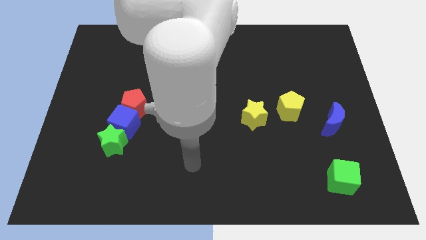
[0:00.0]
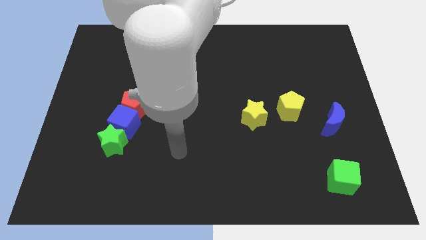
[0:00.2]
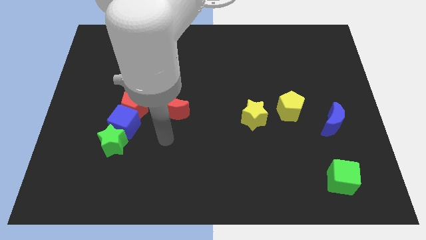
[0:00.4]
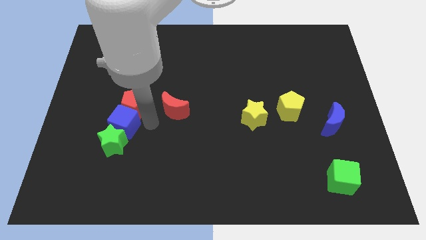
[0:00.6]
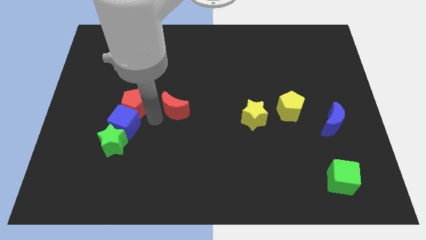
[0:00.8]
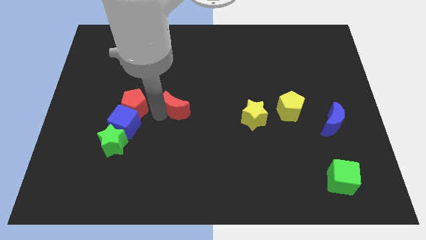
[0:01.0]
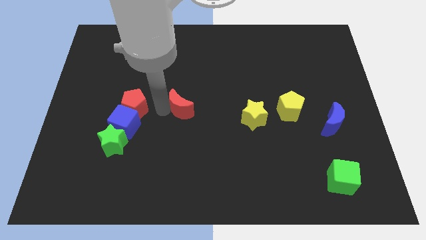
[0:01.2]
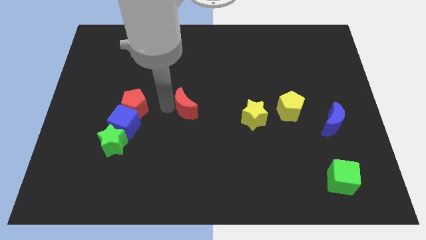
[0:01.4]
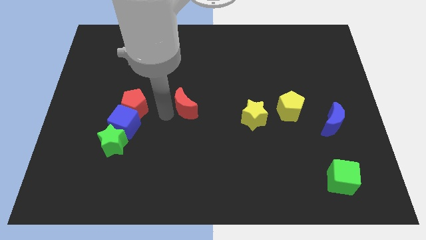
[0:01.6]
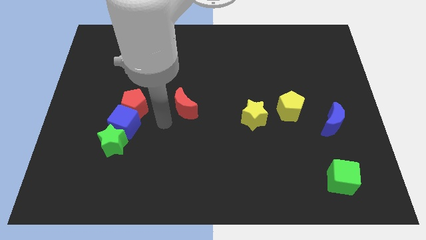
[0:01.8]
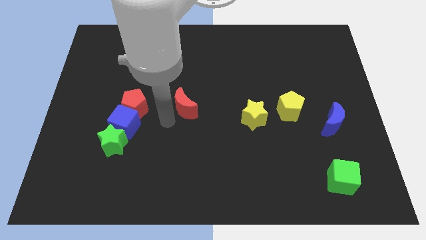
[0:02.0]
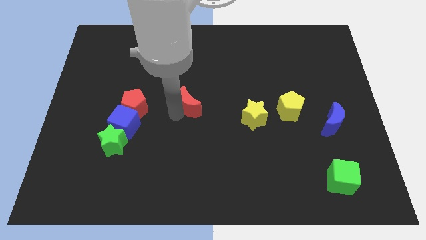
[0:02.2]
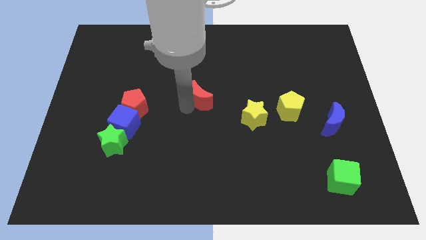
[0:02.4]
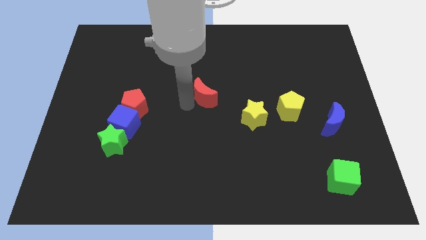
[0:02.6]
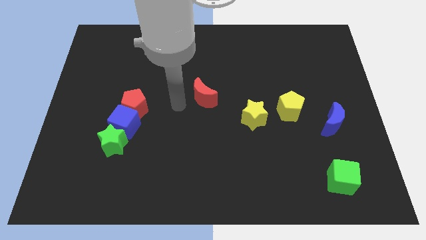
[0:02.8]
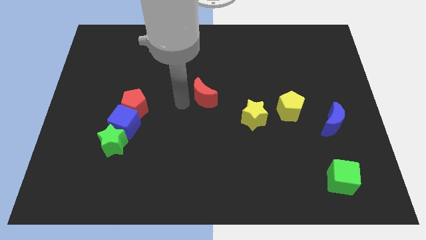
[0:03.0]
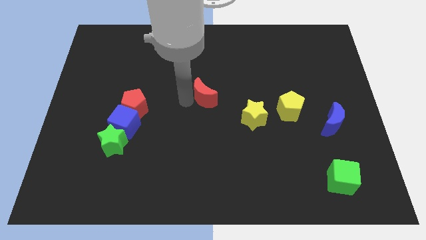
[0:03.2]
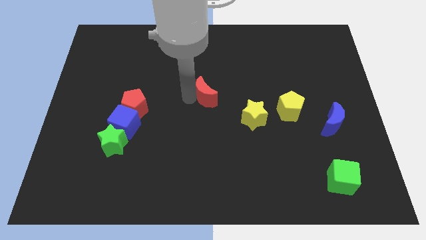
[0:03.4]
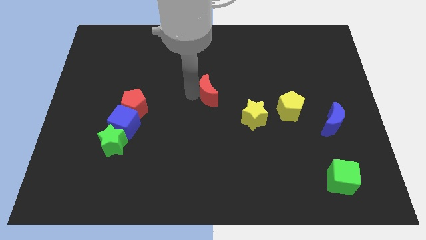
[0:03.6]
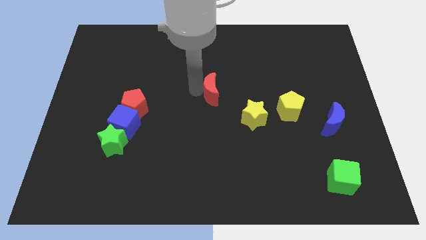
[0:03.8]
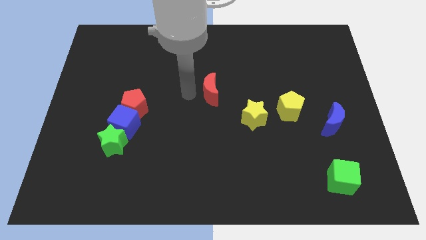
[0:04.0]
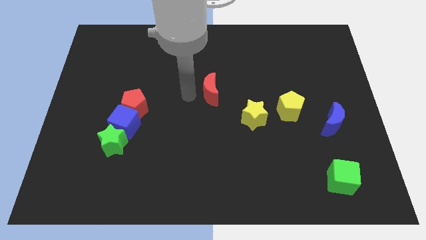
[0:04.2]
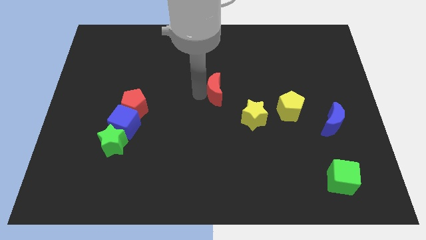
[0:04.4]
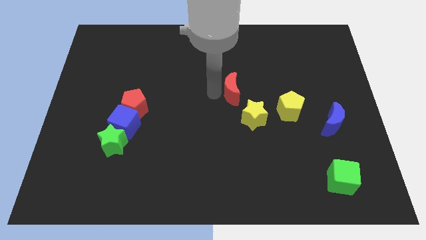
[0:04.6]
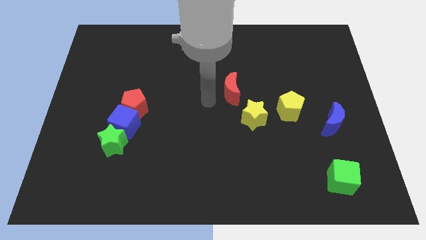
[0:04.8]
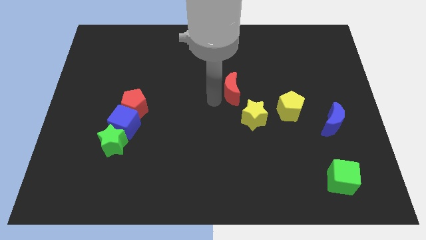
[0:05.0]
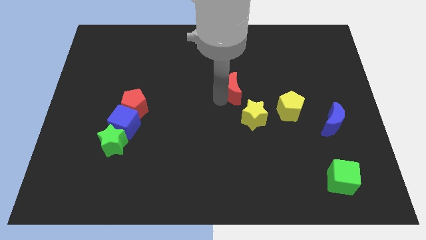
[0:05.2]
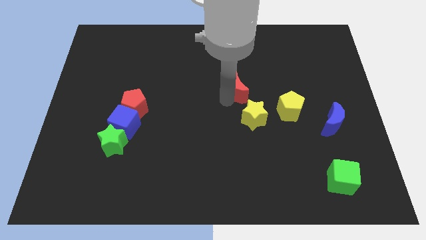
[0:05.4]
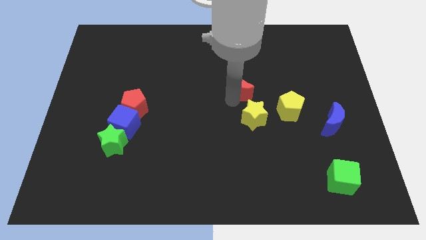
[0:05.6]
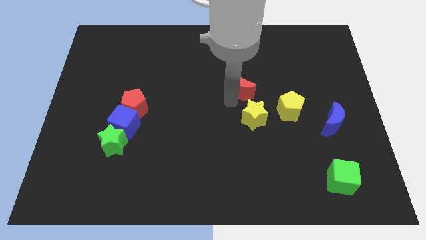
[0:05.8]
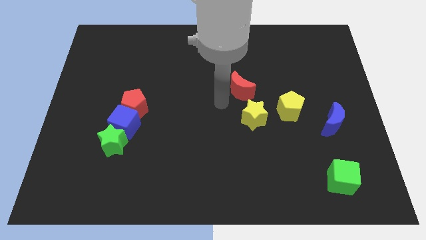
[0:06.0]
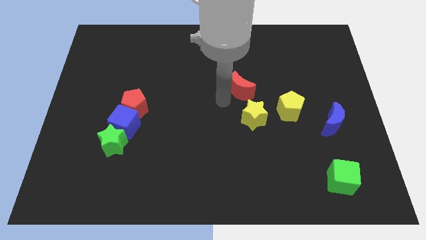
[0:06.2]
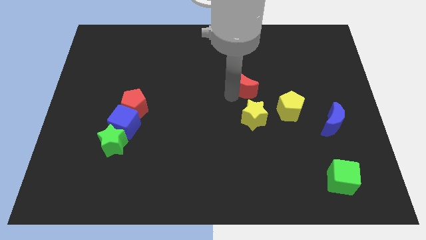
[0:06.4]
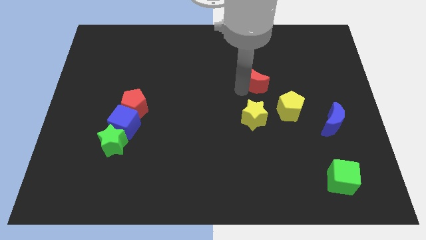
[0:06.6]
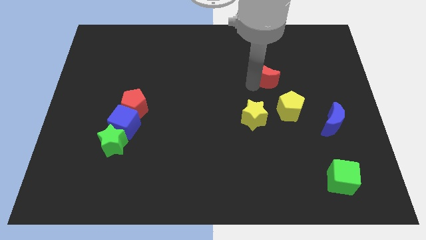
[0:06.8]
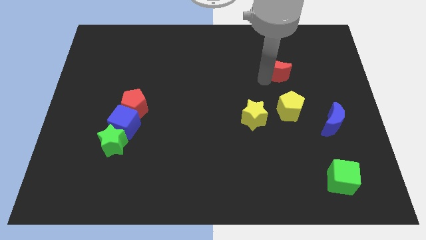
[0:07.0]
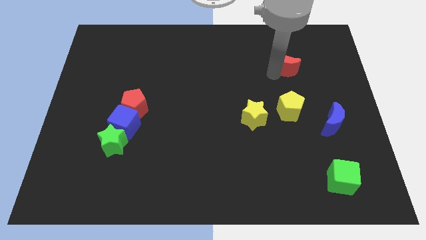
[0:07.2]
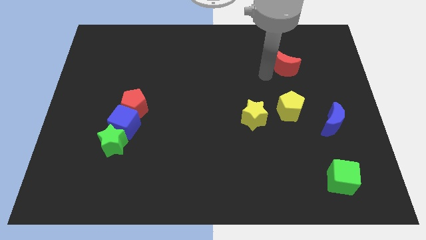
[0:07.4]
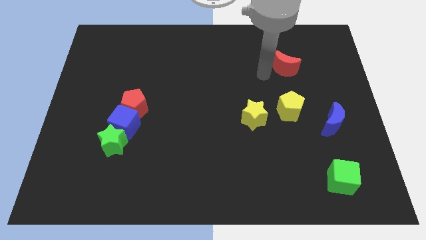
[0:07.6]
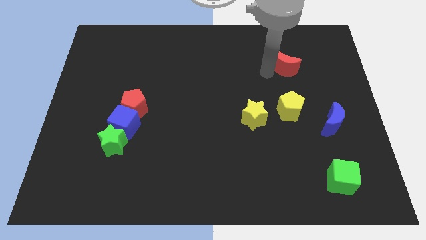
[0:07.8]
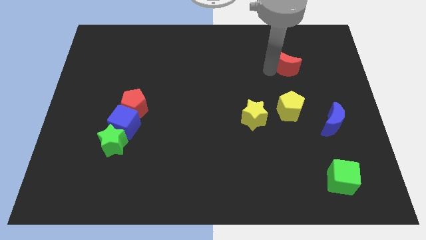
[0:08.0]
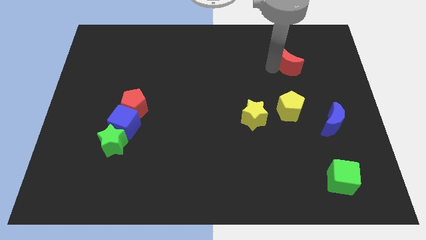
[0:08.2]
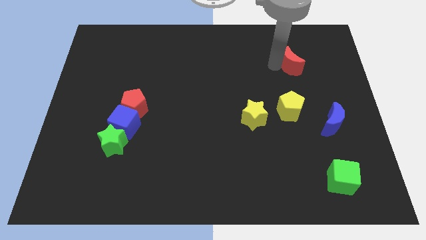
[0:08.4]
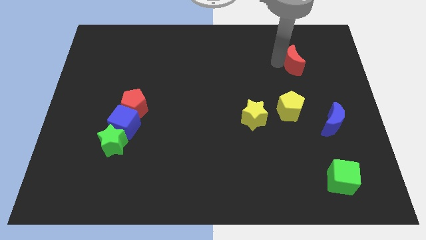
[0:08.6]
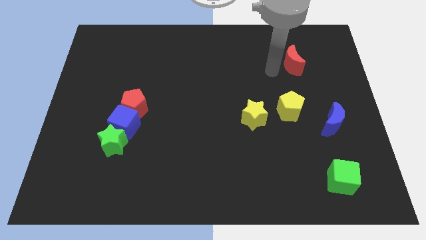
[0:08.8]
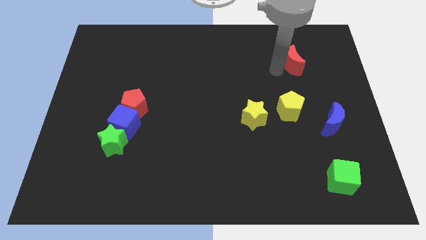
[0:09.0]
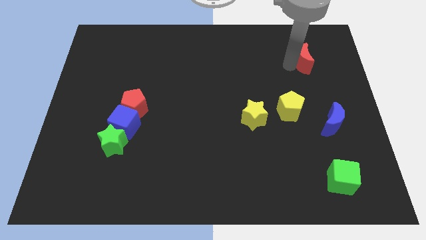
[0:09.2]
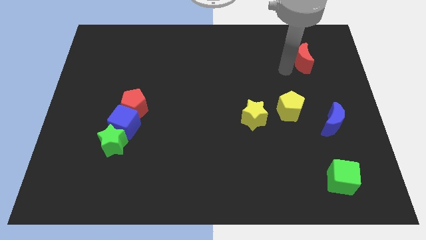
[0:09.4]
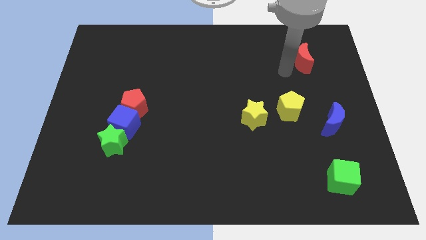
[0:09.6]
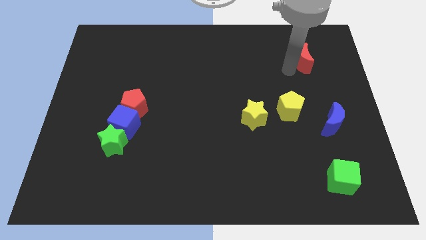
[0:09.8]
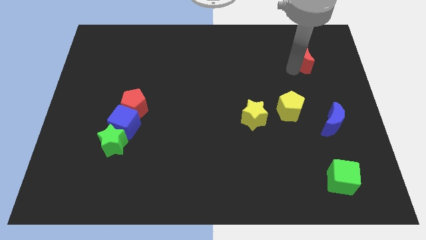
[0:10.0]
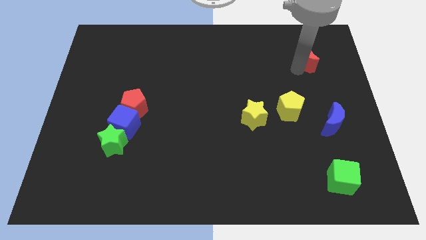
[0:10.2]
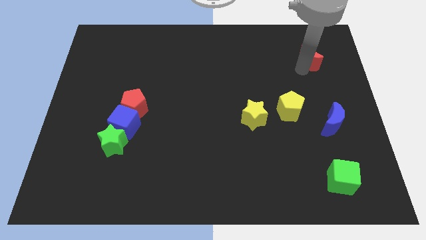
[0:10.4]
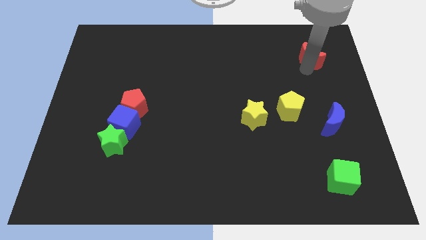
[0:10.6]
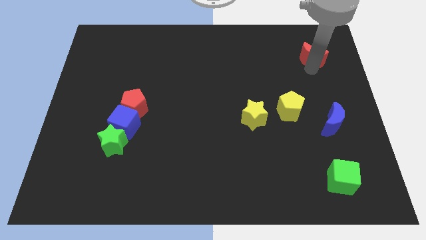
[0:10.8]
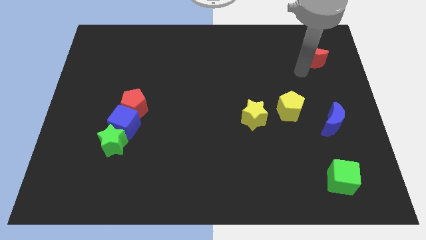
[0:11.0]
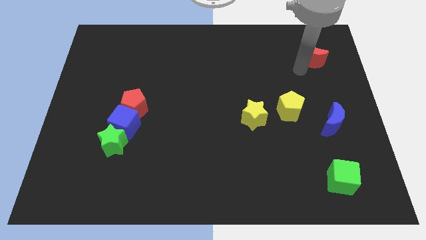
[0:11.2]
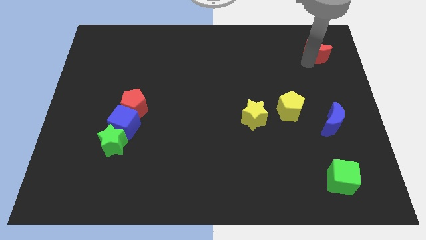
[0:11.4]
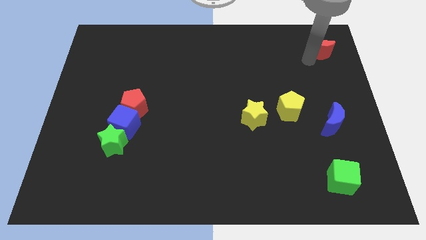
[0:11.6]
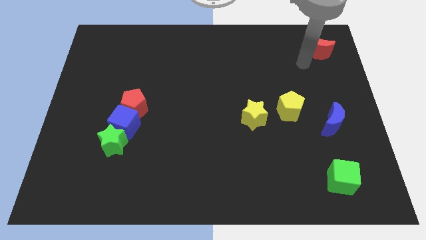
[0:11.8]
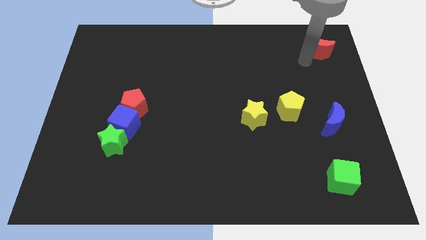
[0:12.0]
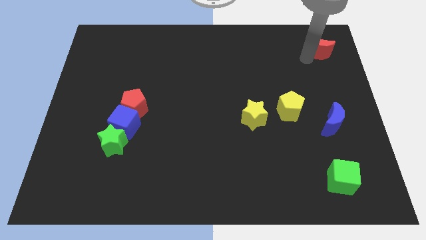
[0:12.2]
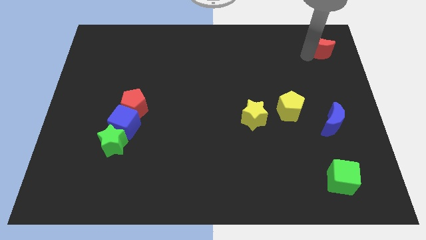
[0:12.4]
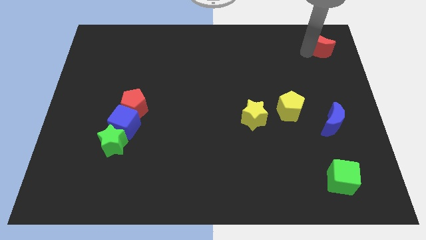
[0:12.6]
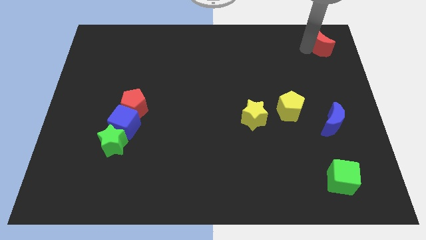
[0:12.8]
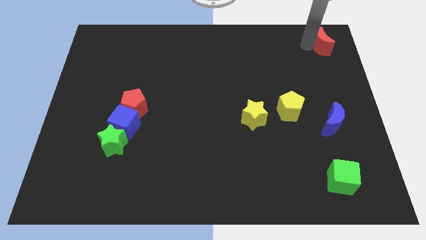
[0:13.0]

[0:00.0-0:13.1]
push the red moon to the top right
